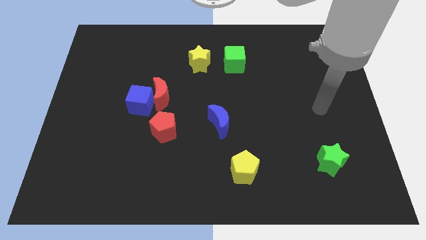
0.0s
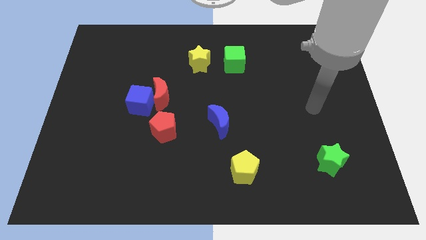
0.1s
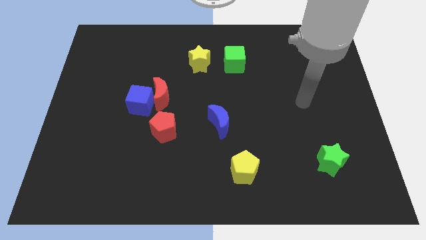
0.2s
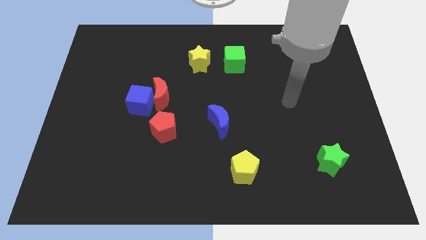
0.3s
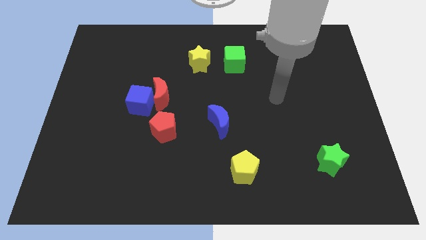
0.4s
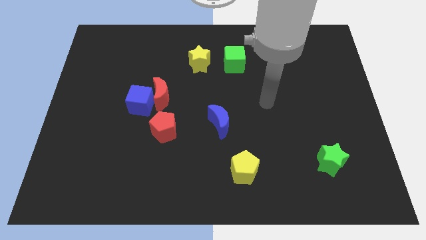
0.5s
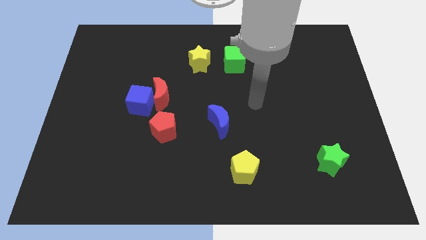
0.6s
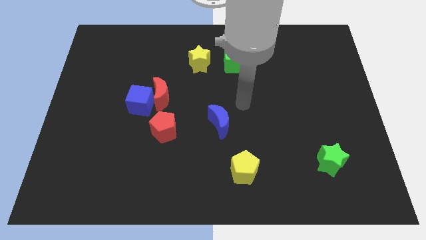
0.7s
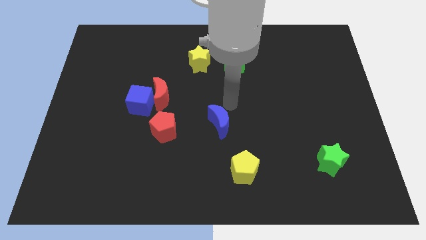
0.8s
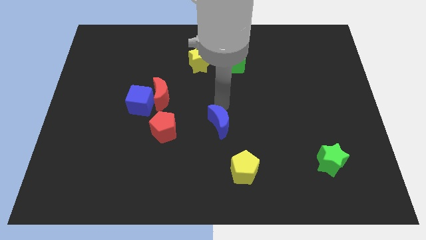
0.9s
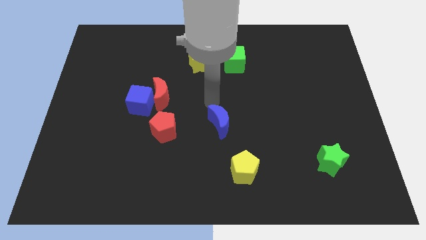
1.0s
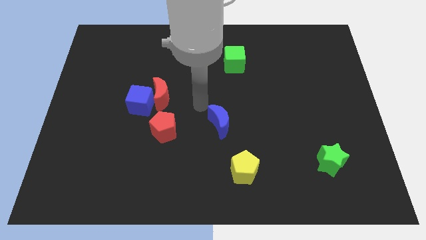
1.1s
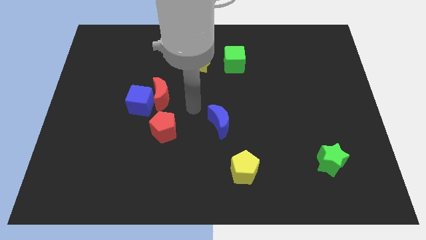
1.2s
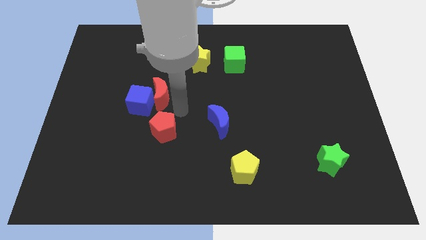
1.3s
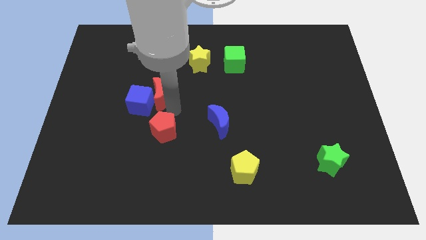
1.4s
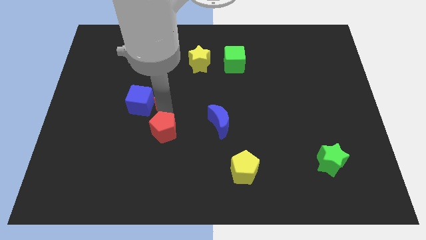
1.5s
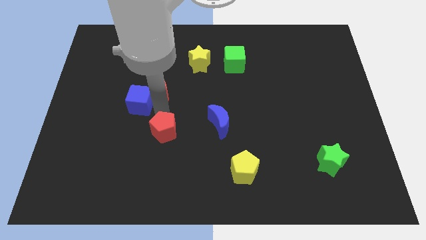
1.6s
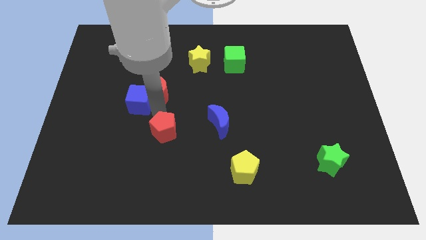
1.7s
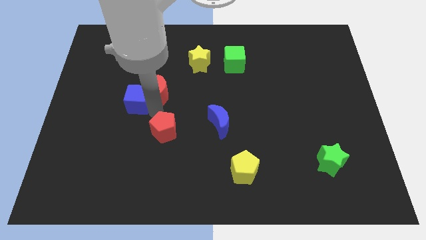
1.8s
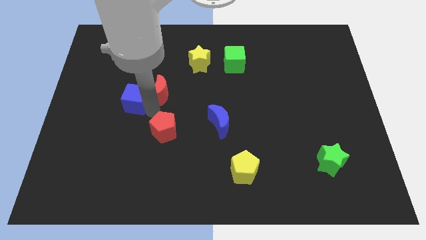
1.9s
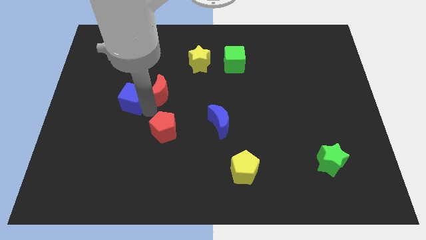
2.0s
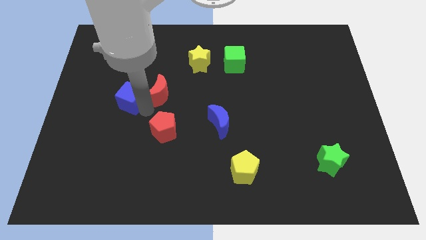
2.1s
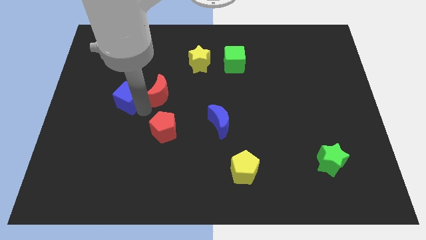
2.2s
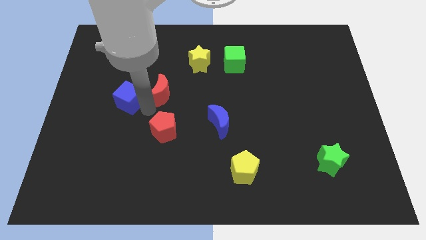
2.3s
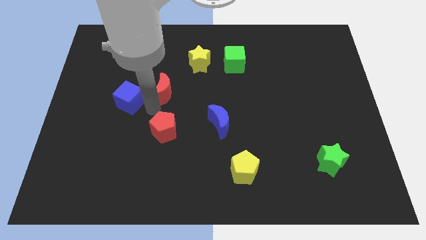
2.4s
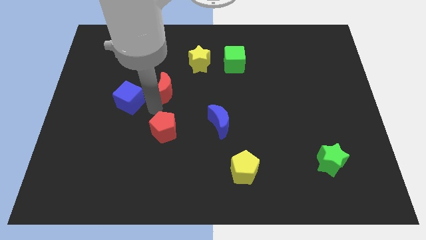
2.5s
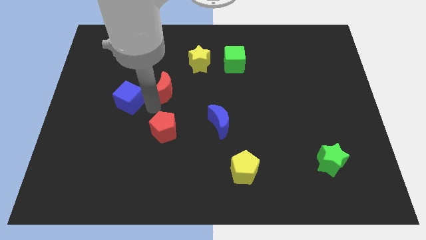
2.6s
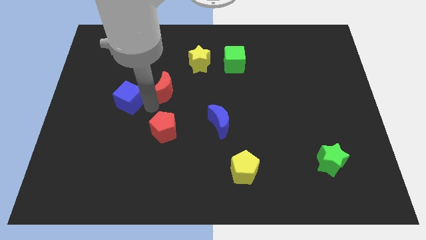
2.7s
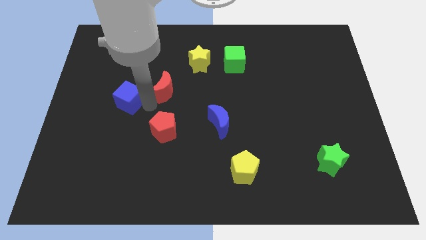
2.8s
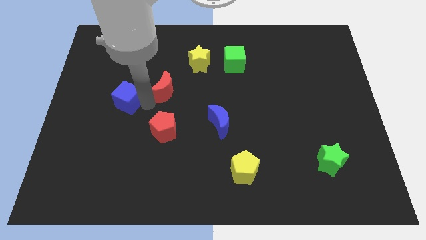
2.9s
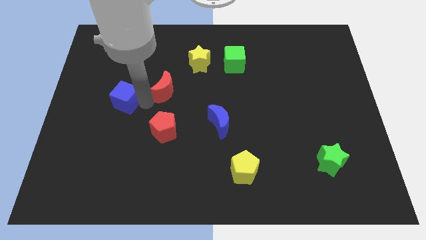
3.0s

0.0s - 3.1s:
pull the blue cube apart from the red moon and red pentagon

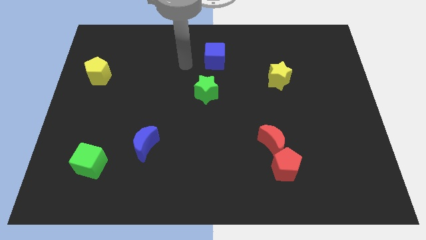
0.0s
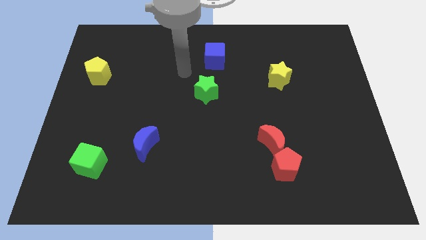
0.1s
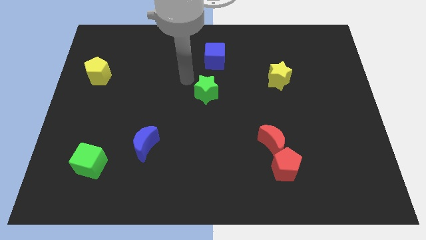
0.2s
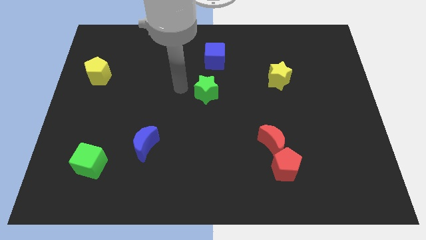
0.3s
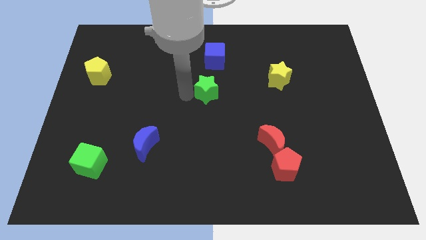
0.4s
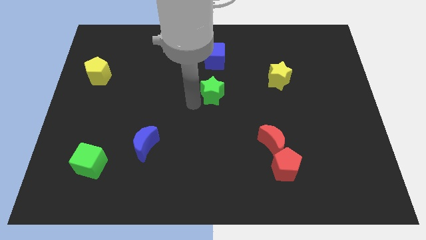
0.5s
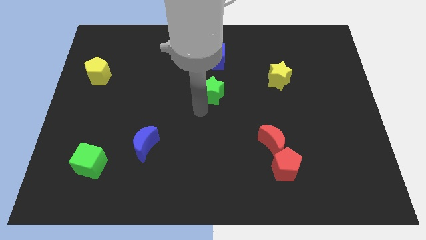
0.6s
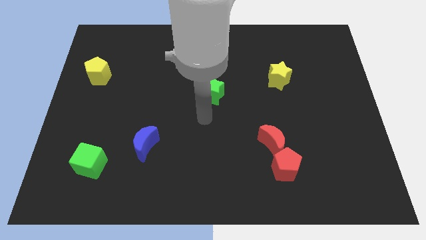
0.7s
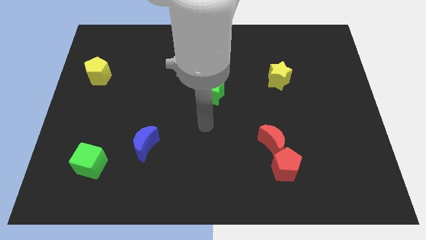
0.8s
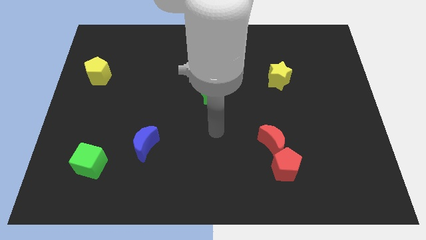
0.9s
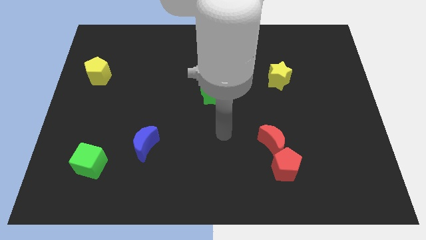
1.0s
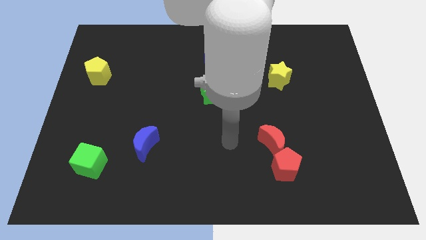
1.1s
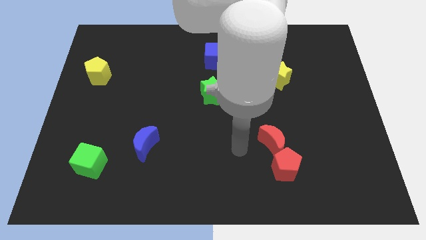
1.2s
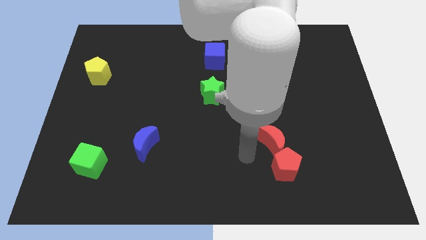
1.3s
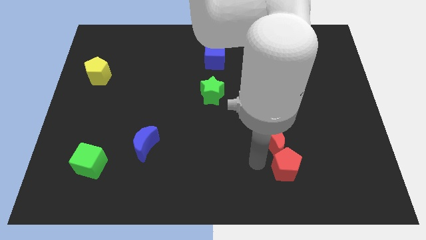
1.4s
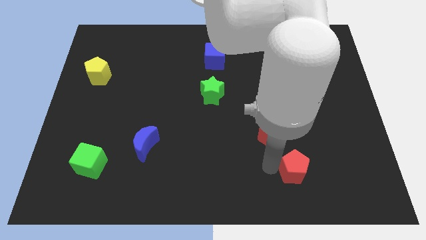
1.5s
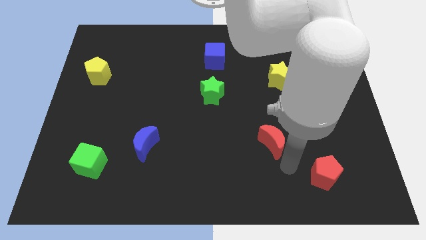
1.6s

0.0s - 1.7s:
pull the red moon apart from the red pentagon

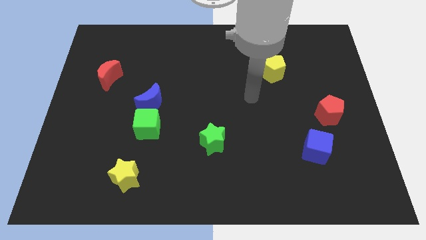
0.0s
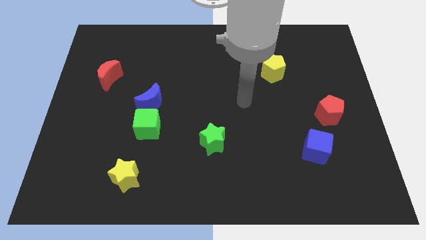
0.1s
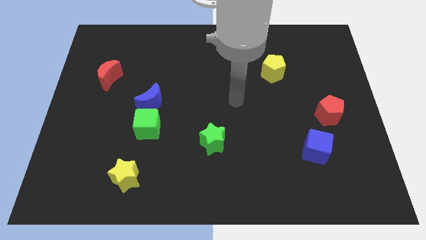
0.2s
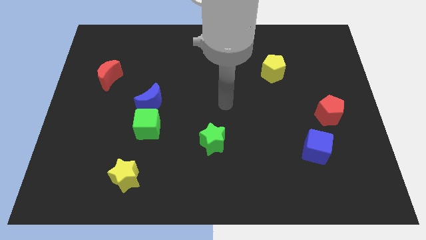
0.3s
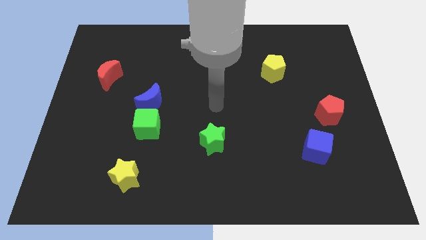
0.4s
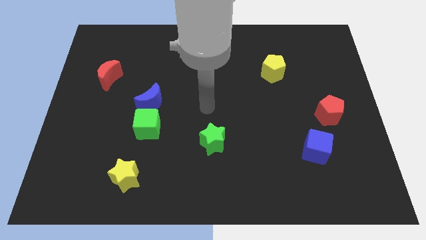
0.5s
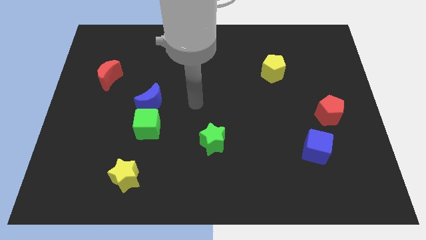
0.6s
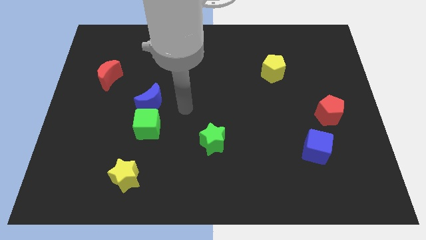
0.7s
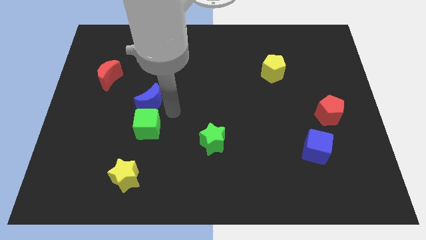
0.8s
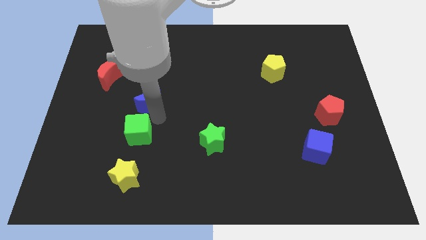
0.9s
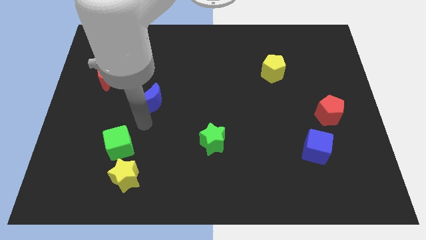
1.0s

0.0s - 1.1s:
pull the blue moon apart from the green cube

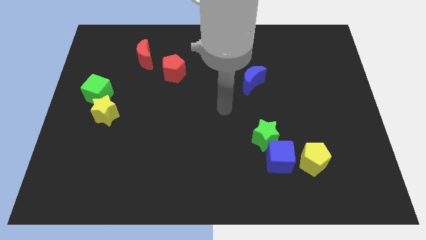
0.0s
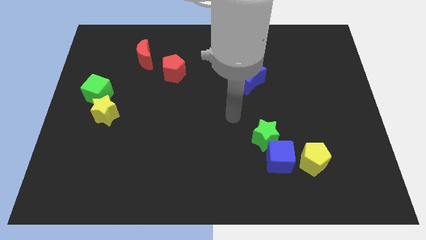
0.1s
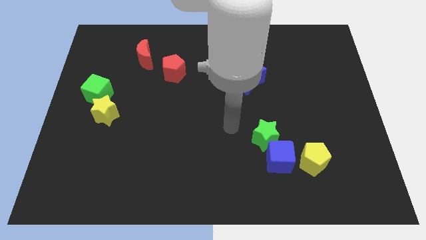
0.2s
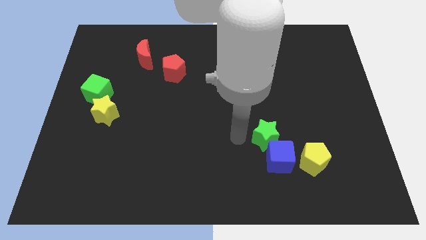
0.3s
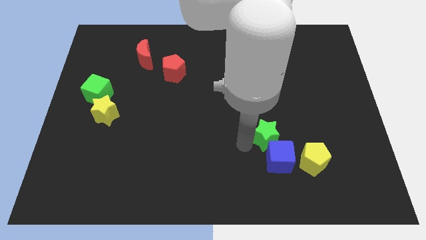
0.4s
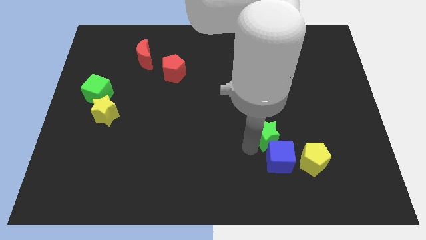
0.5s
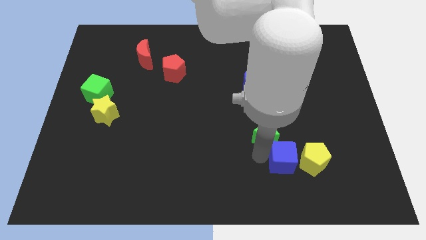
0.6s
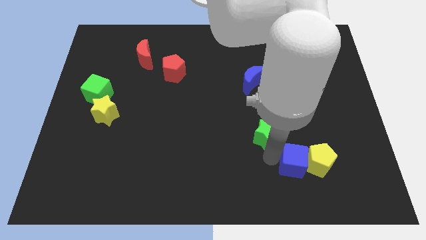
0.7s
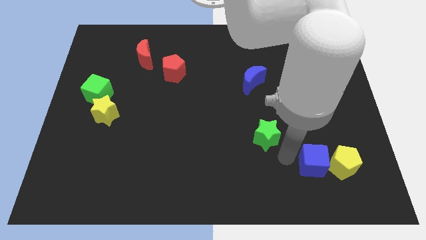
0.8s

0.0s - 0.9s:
separate the green star from the blue cube

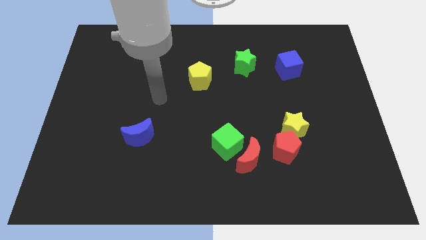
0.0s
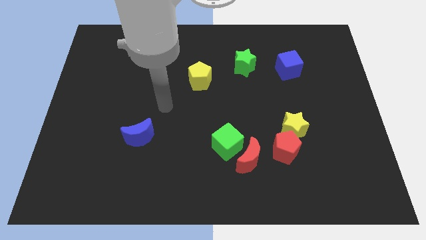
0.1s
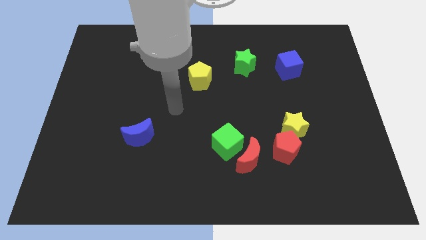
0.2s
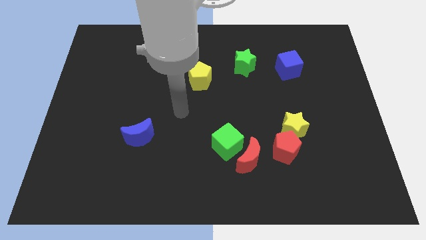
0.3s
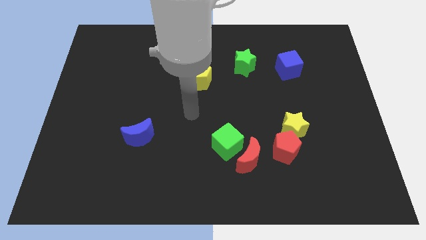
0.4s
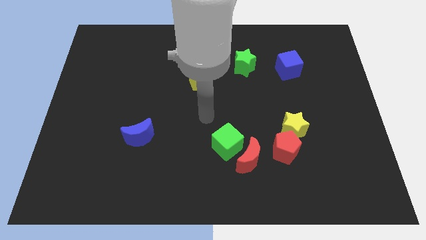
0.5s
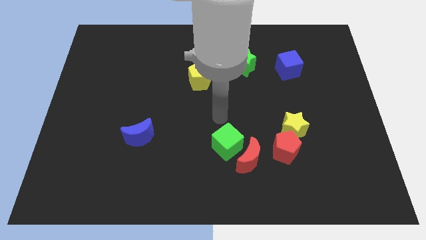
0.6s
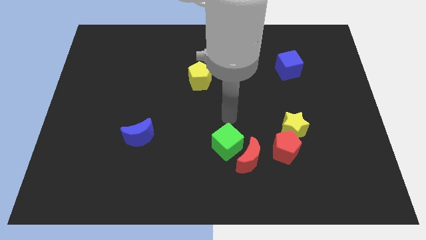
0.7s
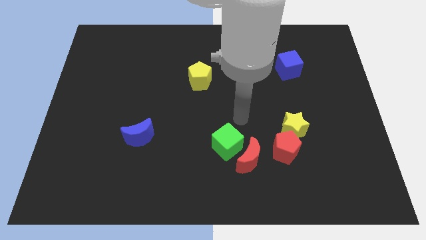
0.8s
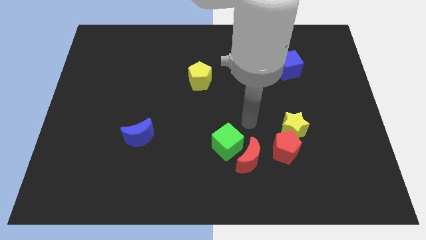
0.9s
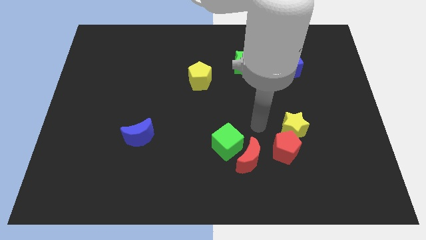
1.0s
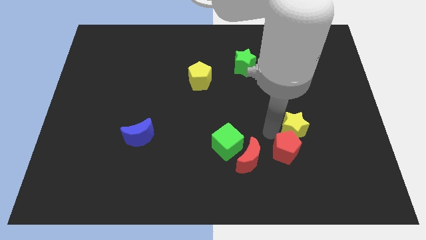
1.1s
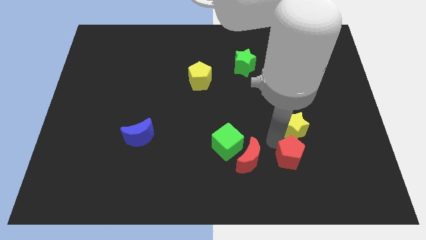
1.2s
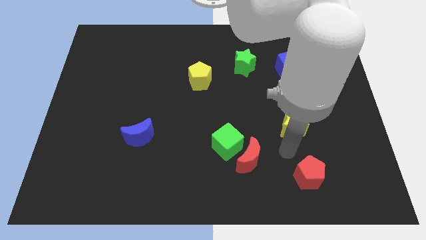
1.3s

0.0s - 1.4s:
pull the yellow star apart from the red pentagon

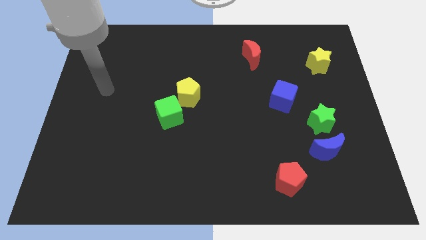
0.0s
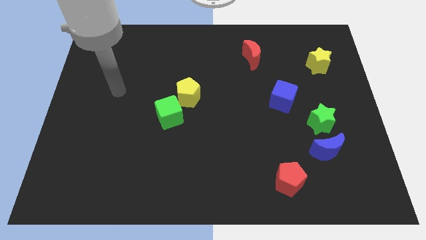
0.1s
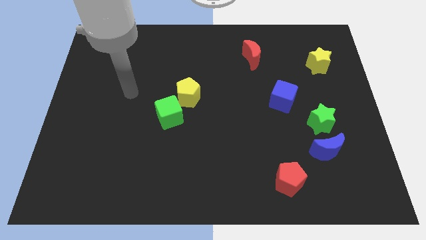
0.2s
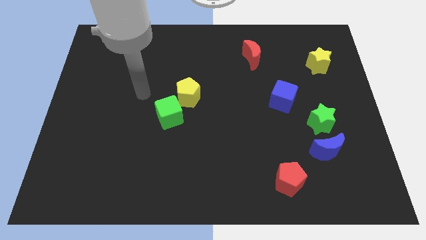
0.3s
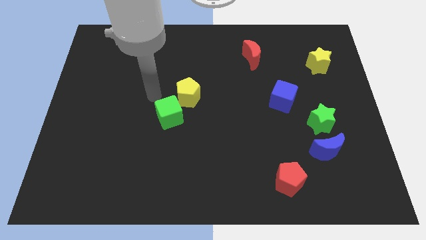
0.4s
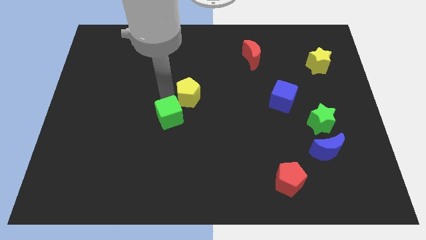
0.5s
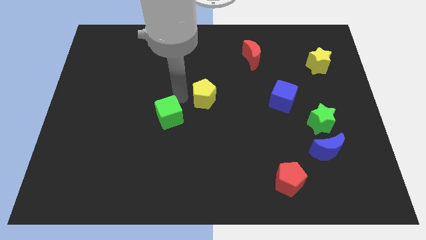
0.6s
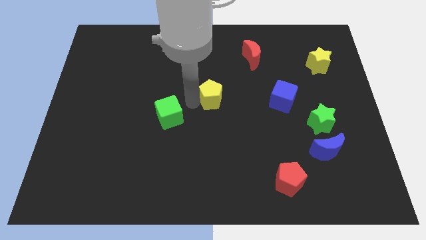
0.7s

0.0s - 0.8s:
move the green cube away from the yellow pentagon

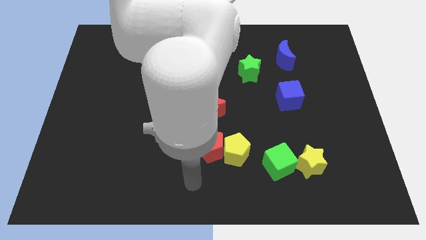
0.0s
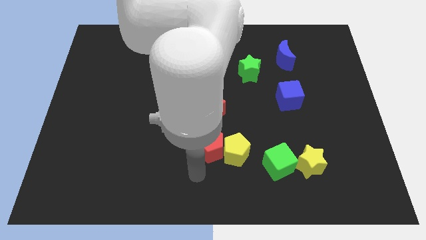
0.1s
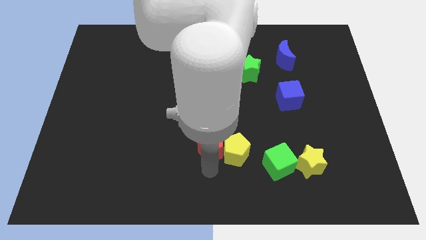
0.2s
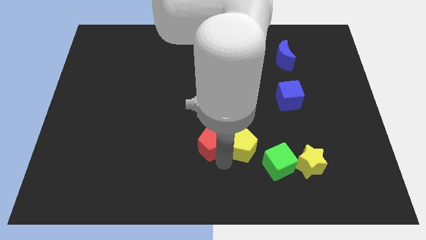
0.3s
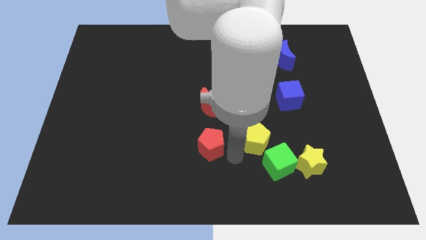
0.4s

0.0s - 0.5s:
pull the red pentagon apart from the yellow pentagon

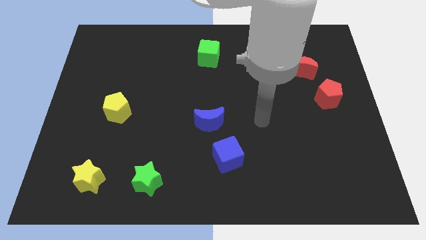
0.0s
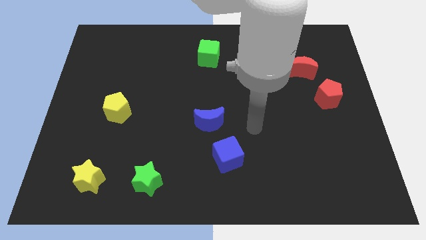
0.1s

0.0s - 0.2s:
separate the blue moon from the blue cube
